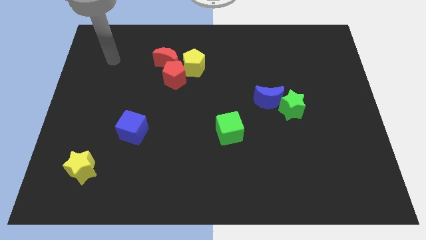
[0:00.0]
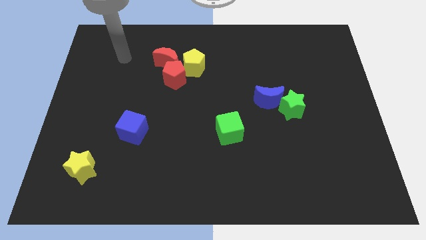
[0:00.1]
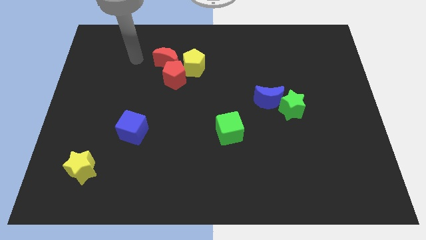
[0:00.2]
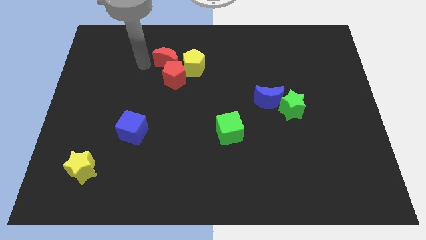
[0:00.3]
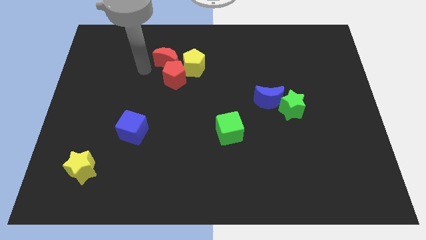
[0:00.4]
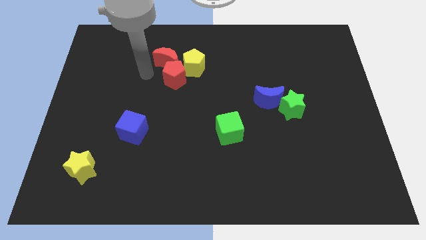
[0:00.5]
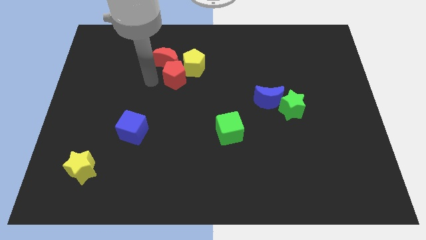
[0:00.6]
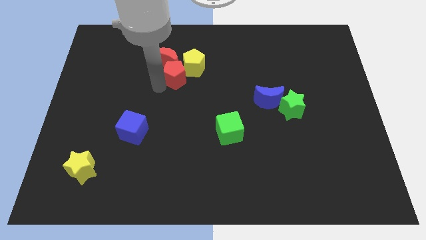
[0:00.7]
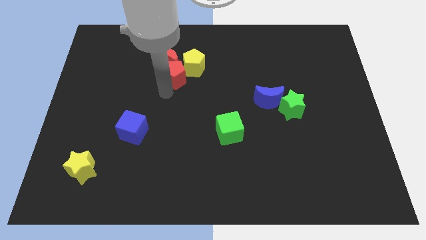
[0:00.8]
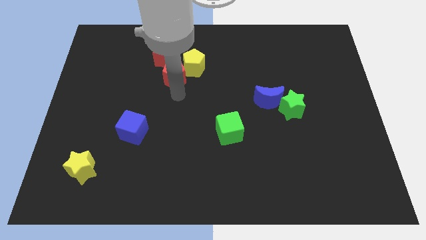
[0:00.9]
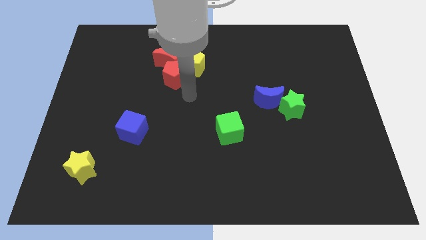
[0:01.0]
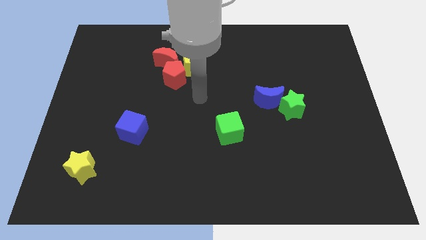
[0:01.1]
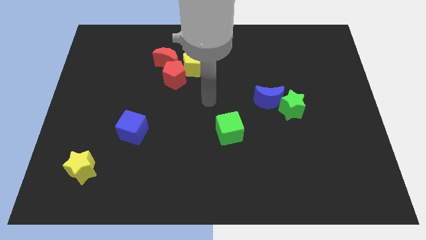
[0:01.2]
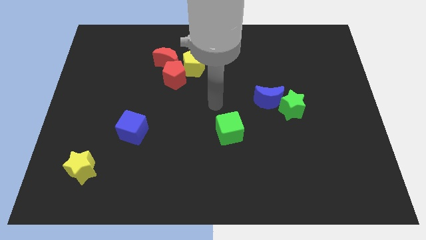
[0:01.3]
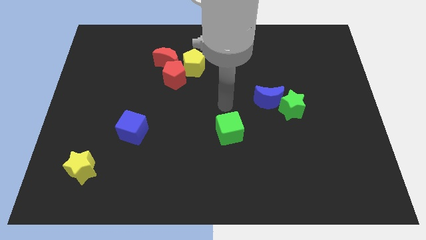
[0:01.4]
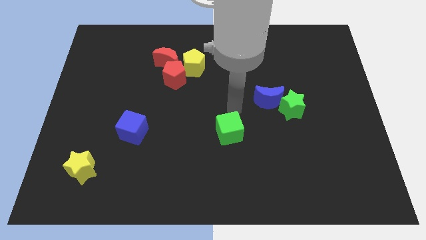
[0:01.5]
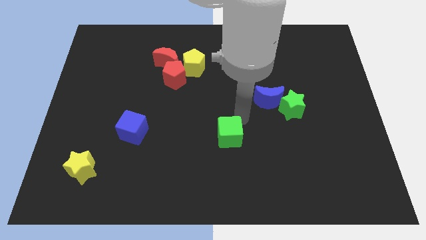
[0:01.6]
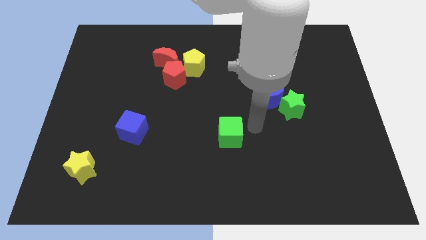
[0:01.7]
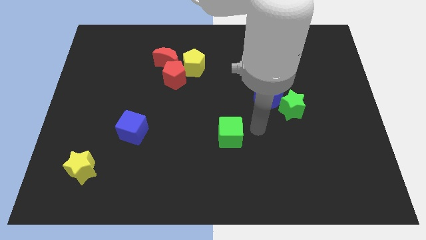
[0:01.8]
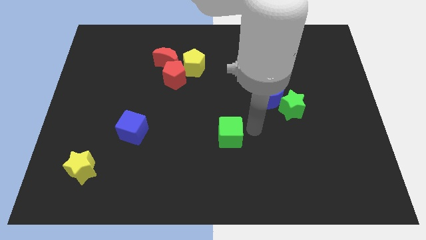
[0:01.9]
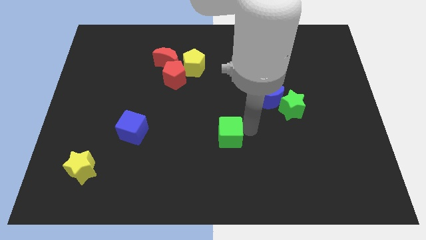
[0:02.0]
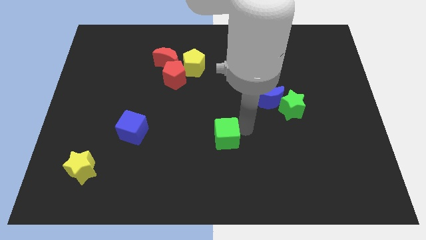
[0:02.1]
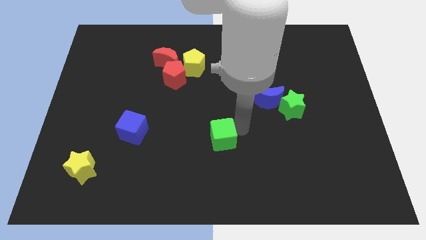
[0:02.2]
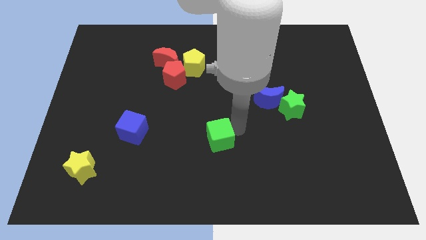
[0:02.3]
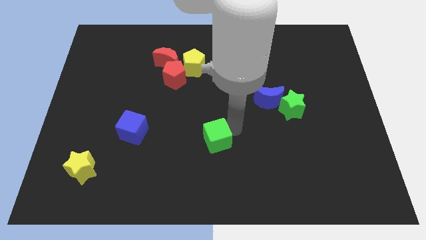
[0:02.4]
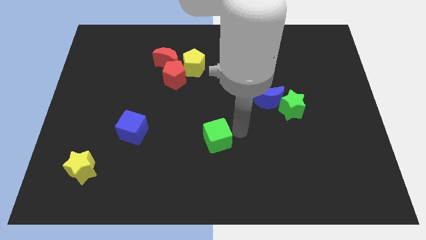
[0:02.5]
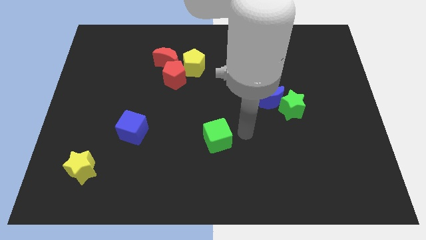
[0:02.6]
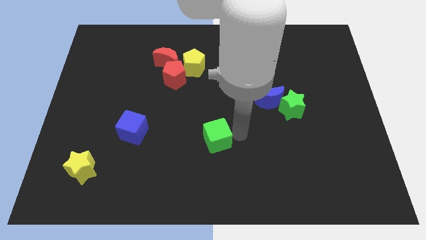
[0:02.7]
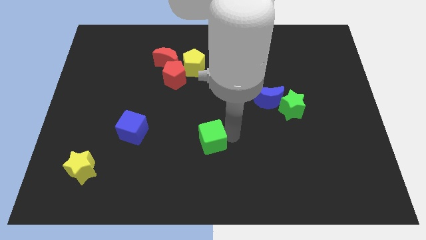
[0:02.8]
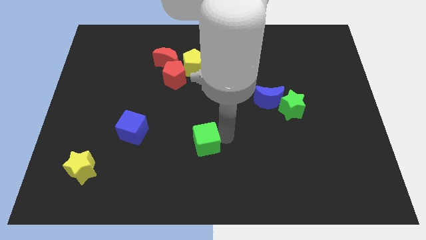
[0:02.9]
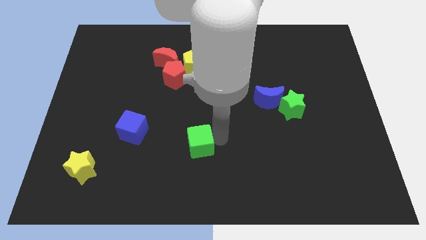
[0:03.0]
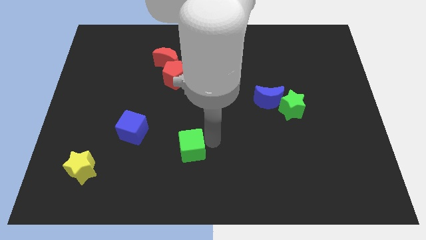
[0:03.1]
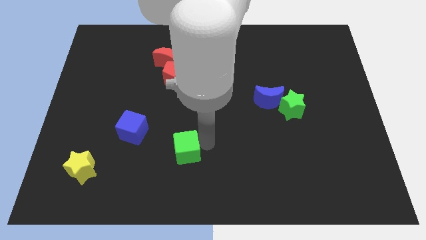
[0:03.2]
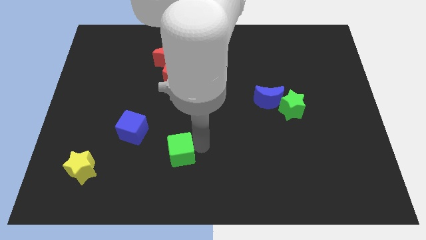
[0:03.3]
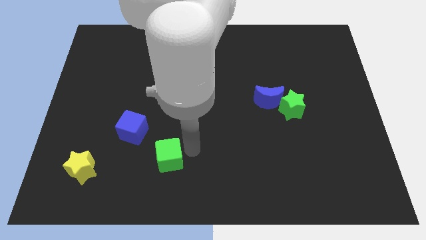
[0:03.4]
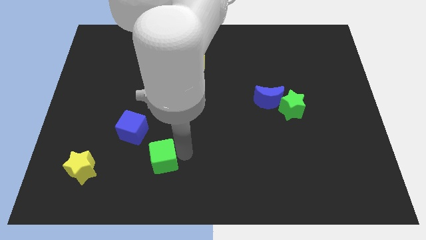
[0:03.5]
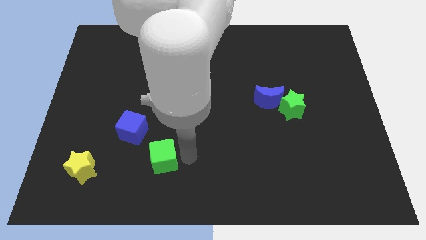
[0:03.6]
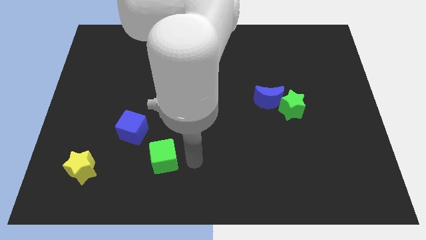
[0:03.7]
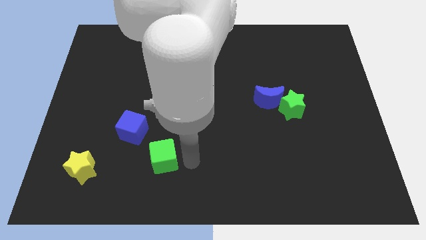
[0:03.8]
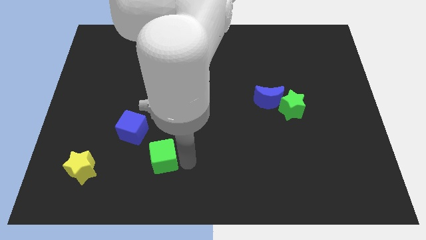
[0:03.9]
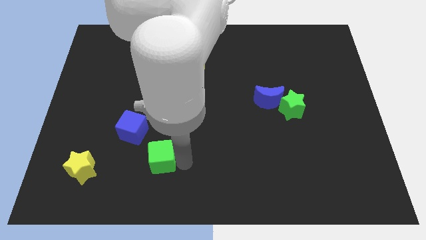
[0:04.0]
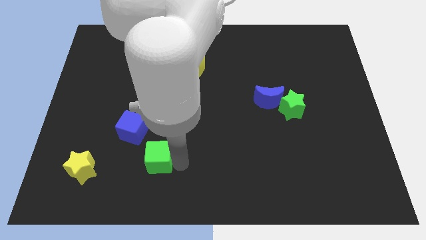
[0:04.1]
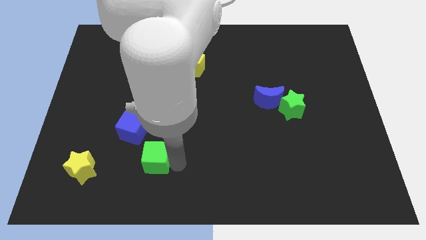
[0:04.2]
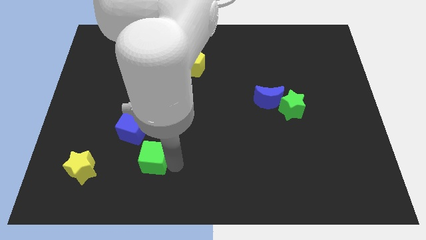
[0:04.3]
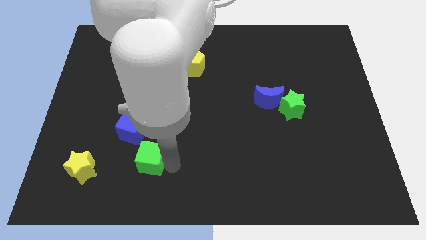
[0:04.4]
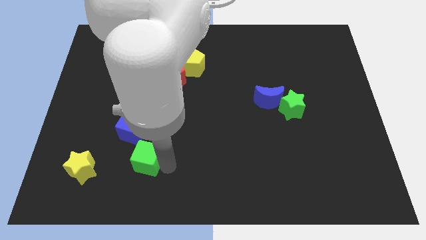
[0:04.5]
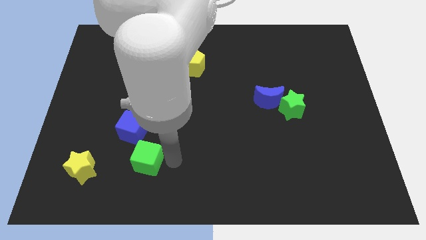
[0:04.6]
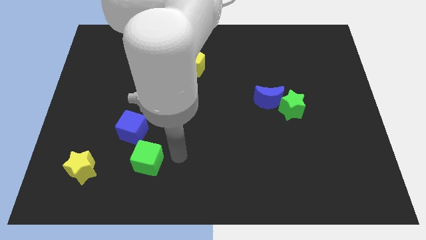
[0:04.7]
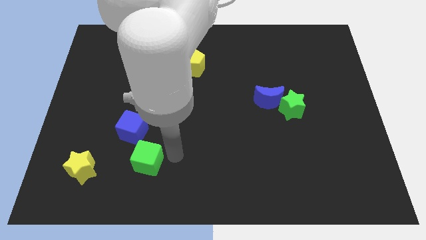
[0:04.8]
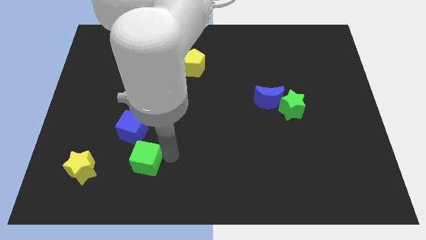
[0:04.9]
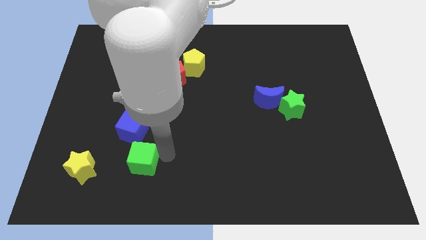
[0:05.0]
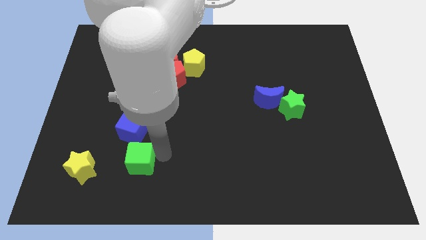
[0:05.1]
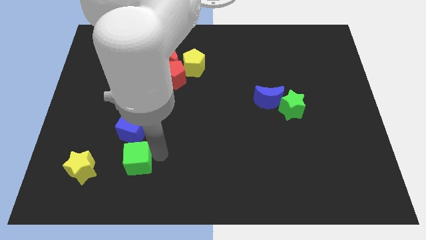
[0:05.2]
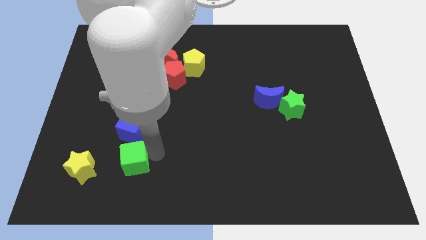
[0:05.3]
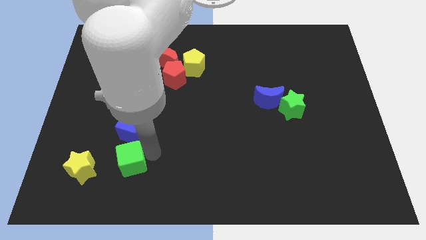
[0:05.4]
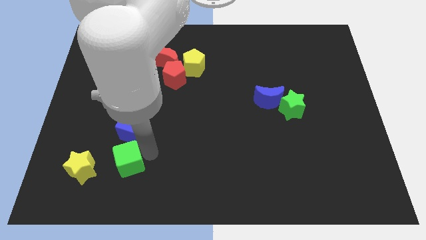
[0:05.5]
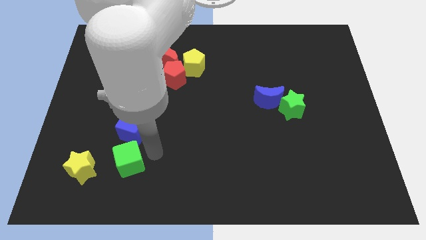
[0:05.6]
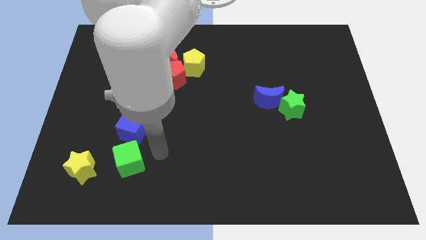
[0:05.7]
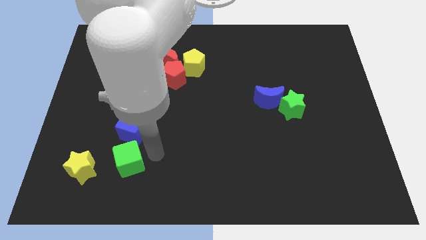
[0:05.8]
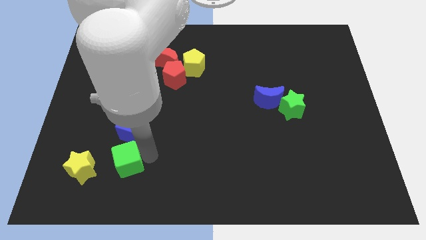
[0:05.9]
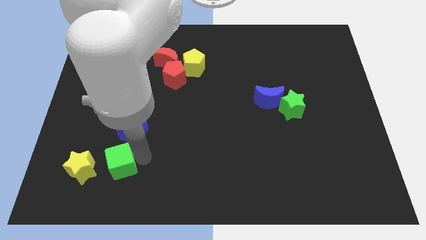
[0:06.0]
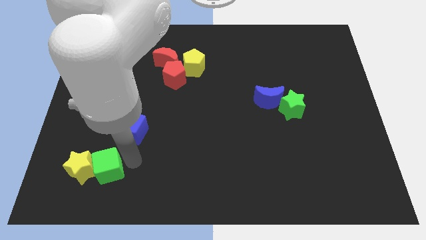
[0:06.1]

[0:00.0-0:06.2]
move the green cube close to the yellow star

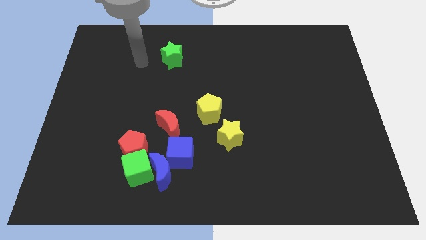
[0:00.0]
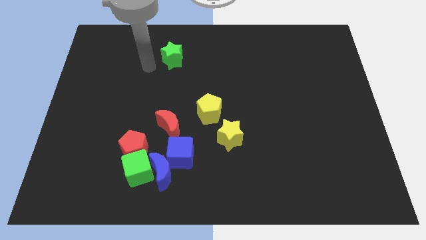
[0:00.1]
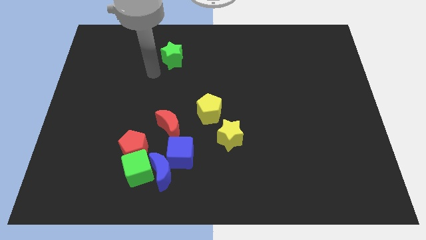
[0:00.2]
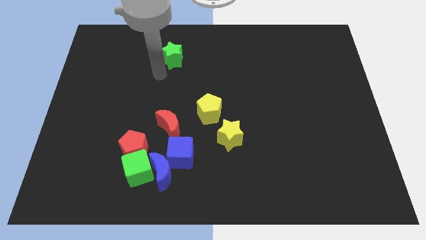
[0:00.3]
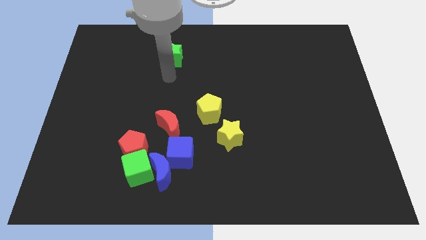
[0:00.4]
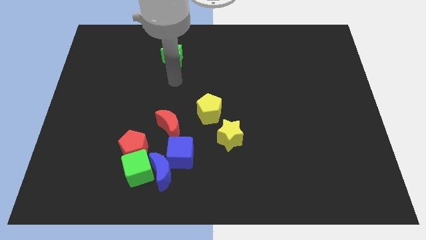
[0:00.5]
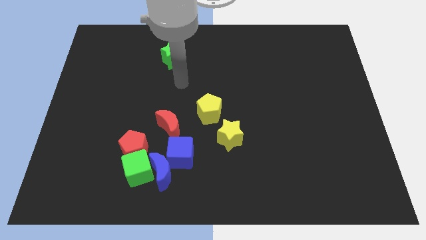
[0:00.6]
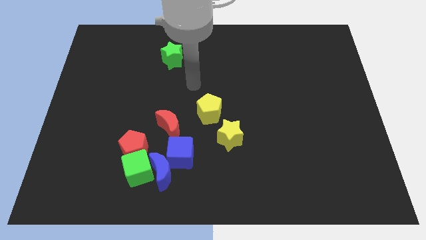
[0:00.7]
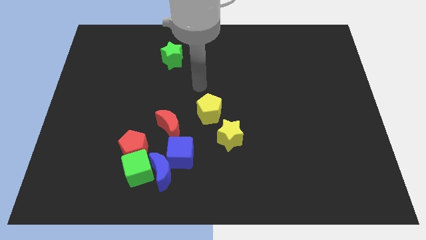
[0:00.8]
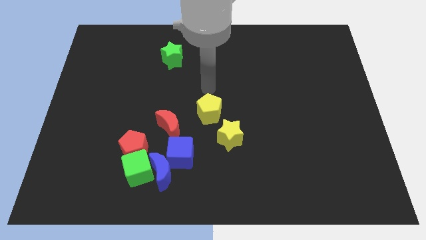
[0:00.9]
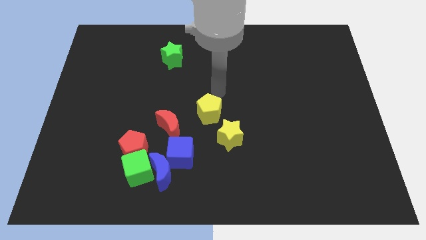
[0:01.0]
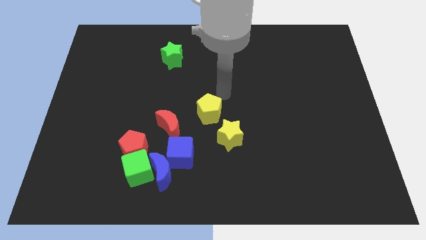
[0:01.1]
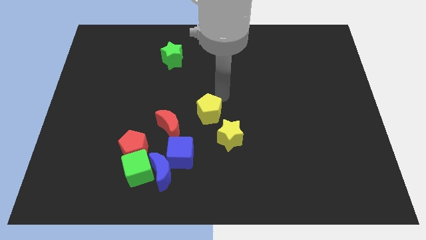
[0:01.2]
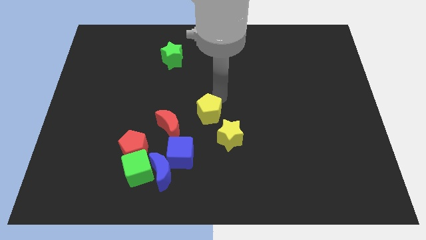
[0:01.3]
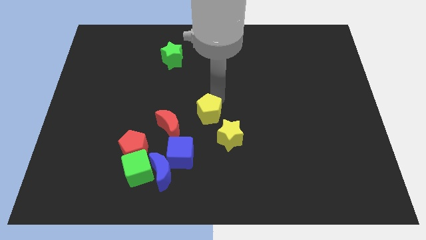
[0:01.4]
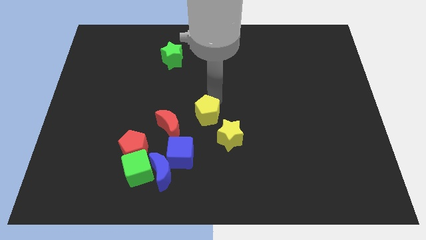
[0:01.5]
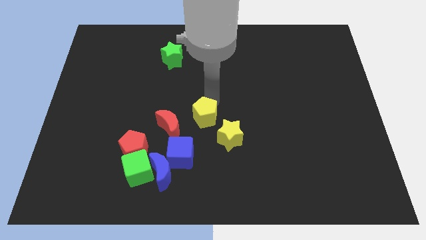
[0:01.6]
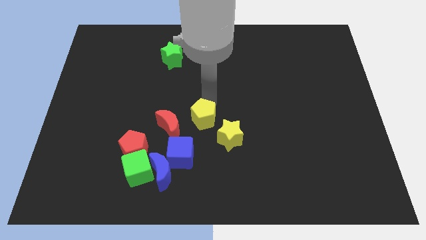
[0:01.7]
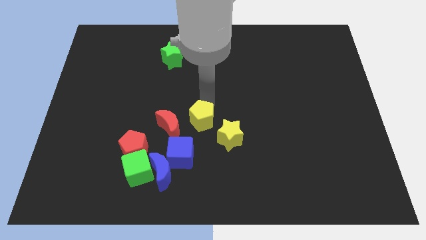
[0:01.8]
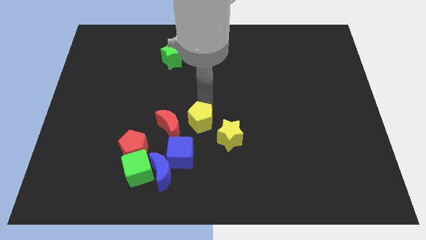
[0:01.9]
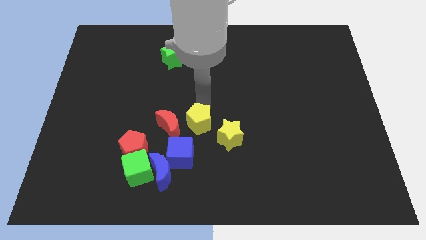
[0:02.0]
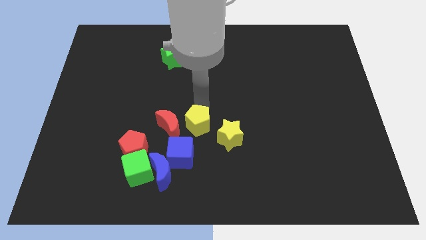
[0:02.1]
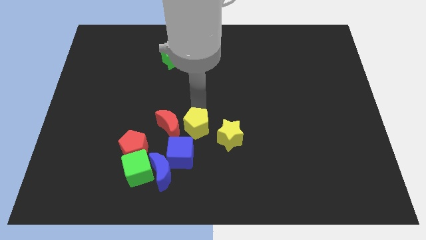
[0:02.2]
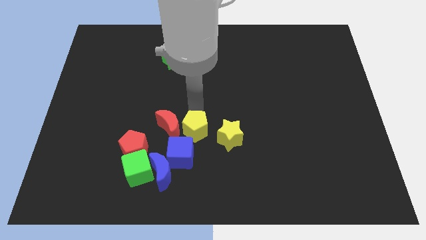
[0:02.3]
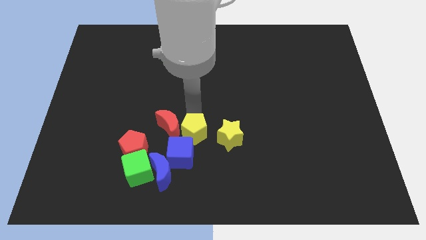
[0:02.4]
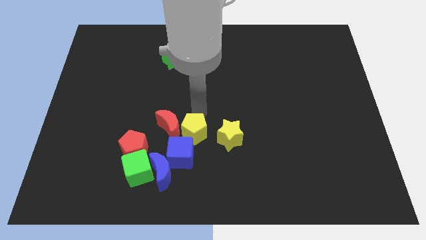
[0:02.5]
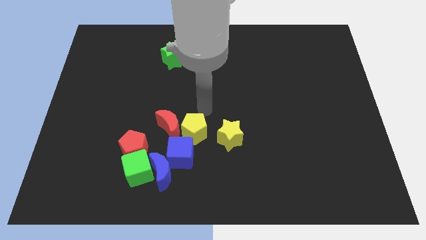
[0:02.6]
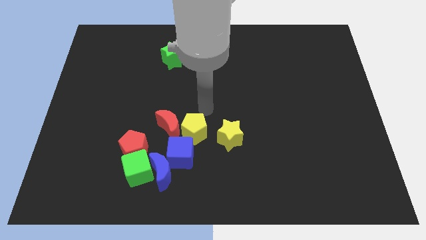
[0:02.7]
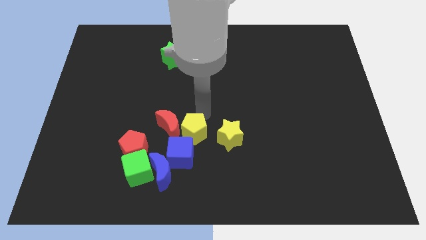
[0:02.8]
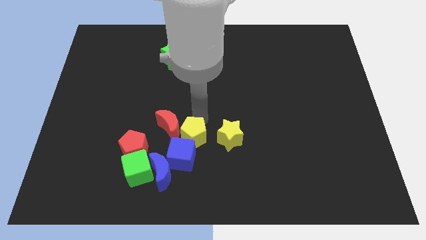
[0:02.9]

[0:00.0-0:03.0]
slide the yellow pentagon next to the blue cube
